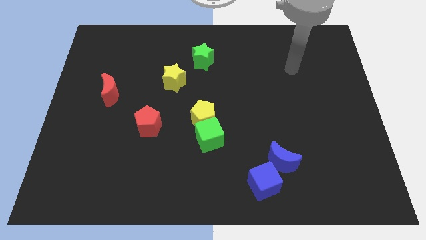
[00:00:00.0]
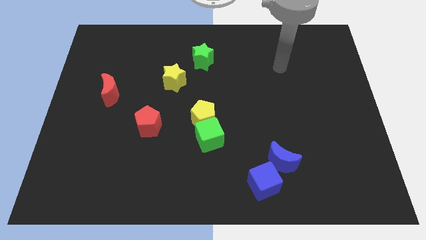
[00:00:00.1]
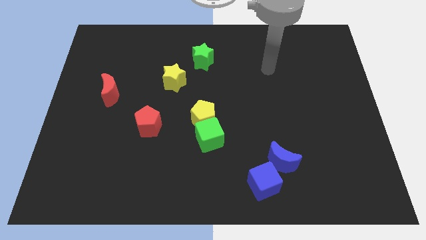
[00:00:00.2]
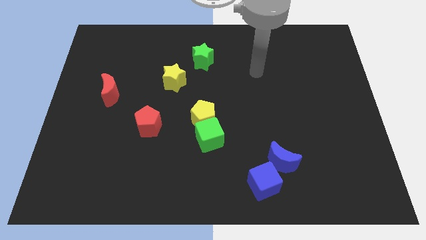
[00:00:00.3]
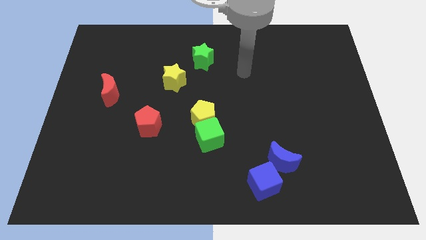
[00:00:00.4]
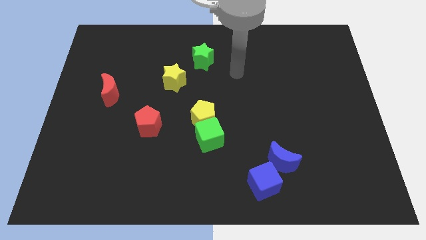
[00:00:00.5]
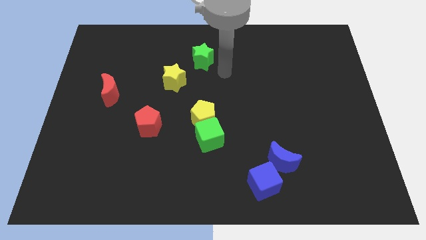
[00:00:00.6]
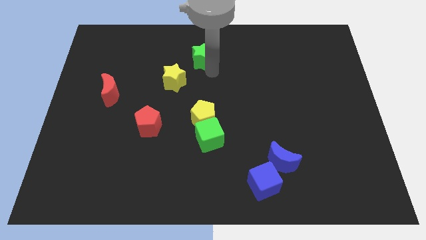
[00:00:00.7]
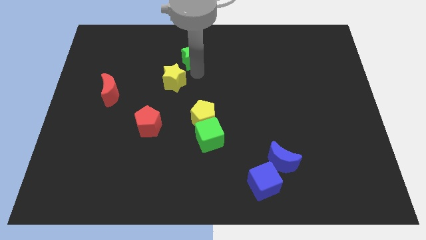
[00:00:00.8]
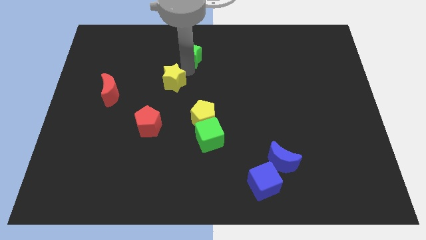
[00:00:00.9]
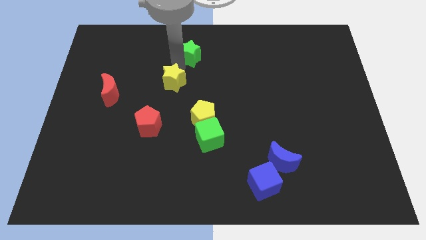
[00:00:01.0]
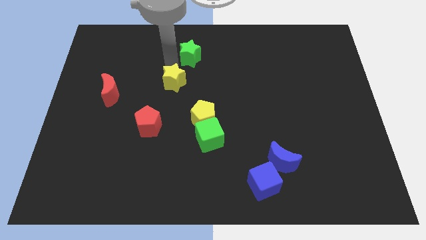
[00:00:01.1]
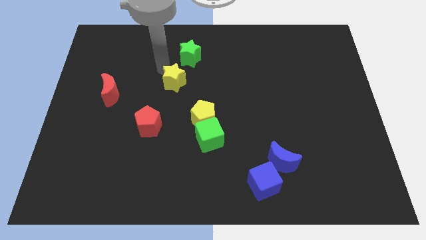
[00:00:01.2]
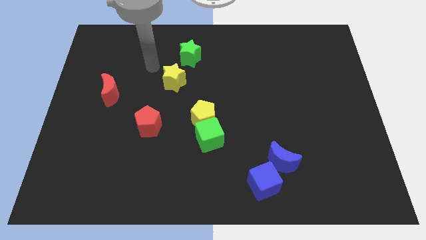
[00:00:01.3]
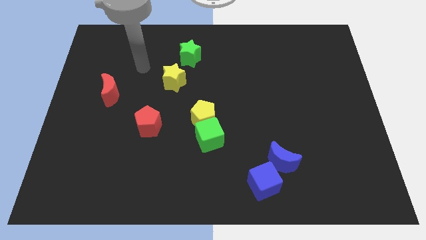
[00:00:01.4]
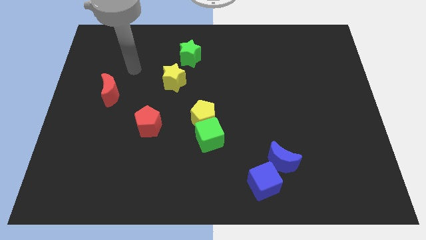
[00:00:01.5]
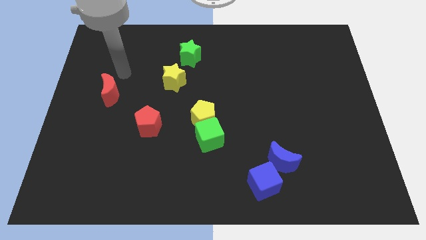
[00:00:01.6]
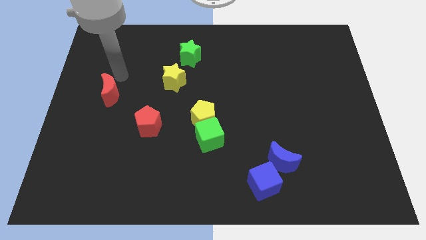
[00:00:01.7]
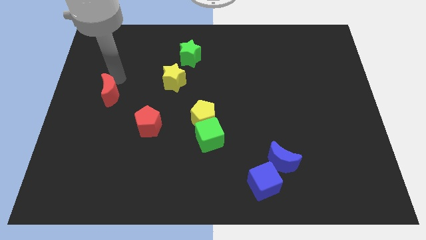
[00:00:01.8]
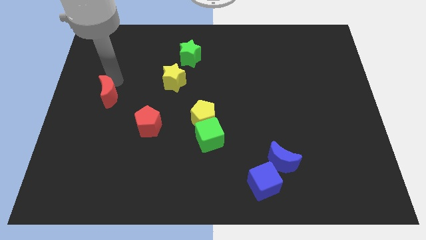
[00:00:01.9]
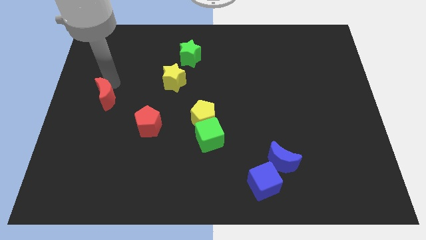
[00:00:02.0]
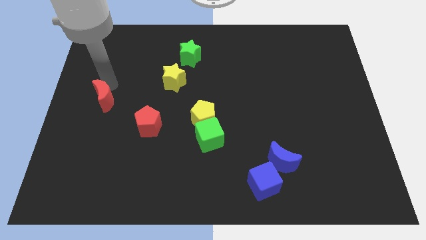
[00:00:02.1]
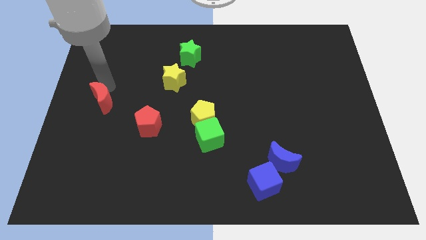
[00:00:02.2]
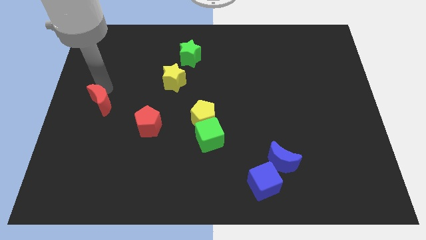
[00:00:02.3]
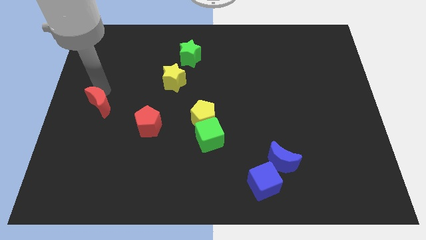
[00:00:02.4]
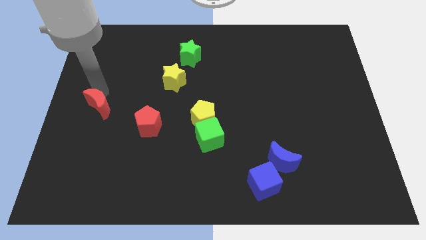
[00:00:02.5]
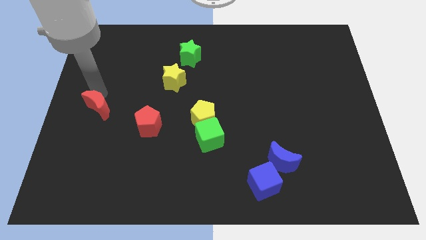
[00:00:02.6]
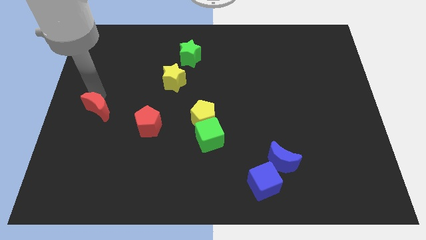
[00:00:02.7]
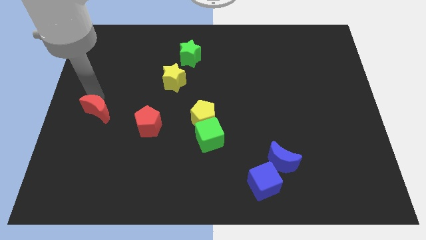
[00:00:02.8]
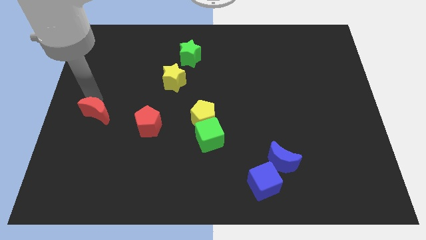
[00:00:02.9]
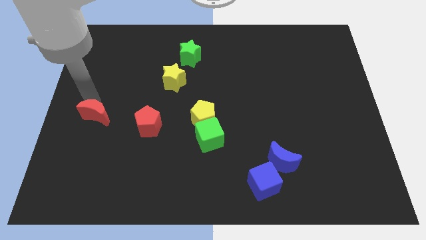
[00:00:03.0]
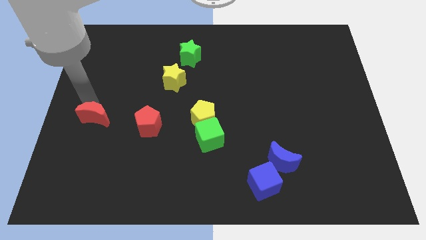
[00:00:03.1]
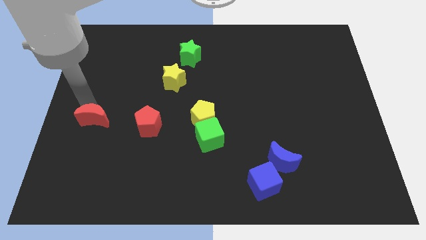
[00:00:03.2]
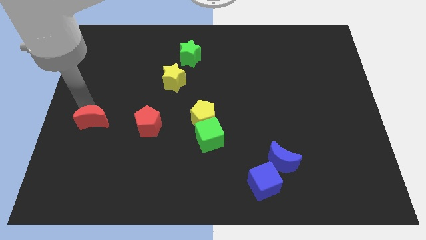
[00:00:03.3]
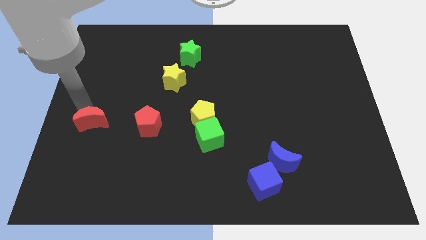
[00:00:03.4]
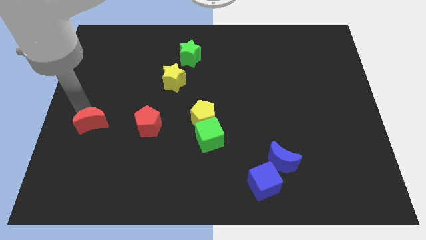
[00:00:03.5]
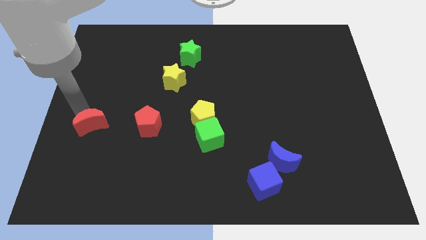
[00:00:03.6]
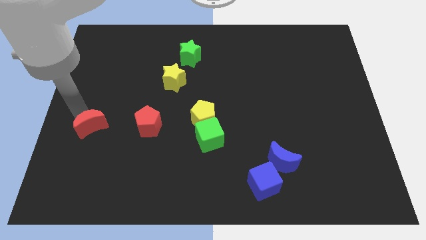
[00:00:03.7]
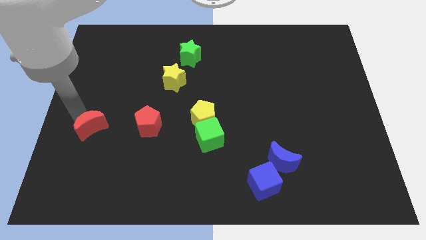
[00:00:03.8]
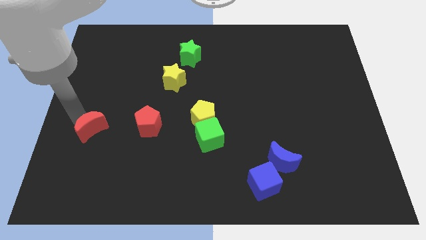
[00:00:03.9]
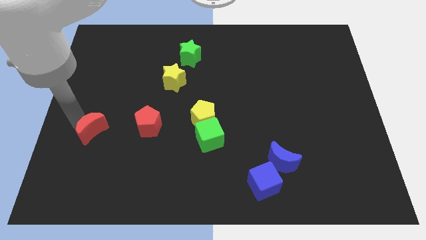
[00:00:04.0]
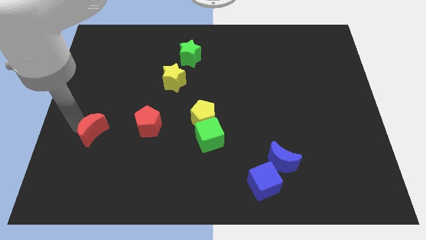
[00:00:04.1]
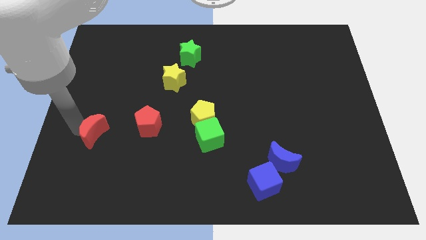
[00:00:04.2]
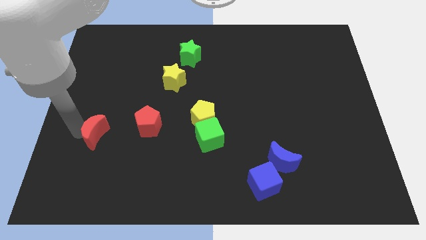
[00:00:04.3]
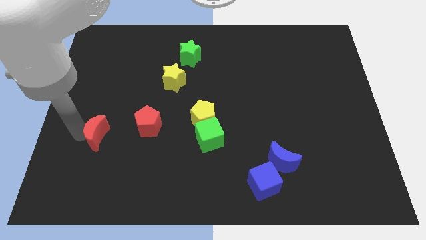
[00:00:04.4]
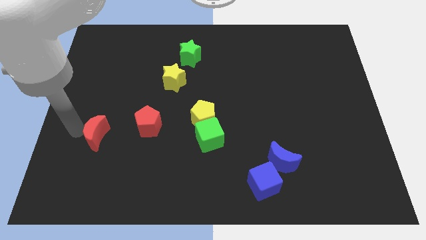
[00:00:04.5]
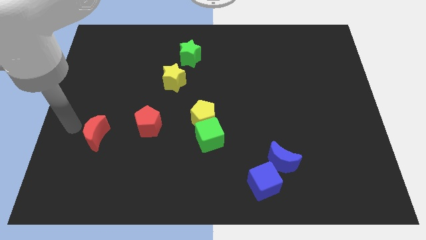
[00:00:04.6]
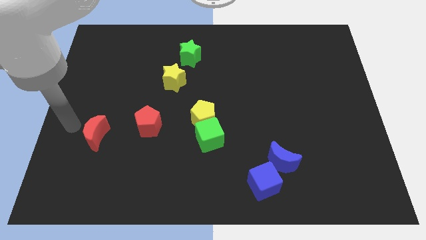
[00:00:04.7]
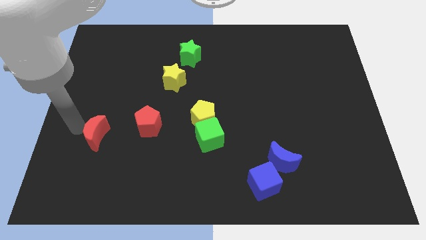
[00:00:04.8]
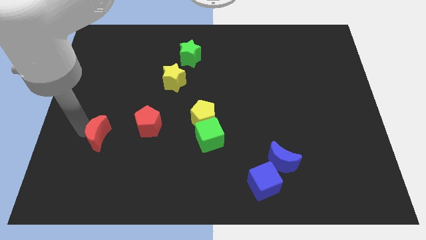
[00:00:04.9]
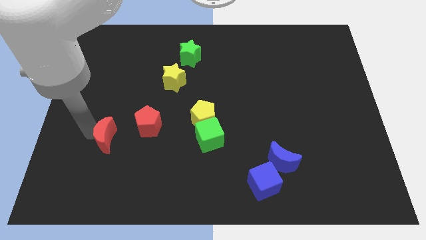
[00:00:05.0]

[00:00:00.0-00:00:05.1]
put the red moon to the bottom left side of the red pentagon
